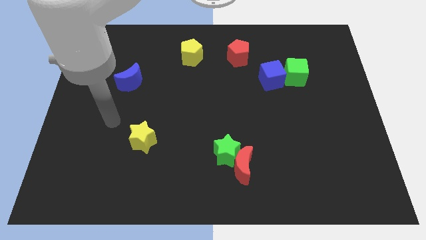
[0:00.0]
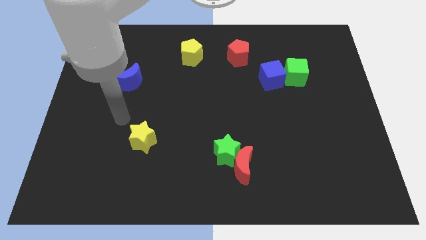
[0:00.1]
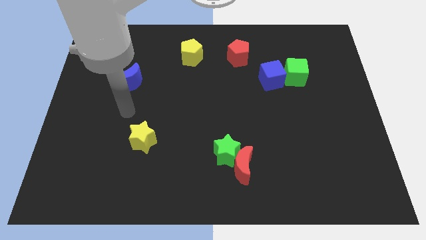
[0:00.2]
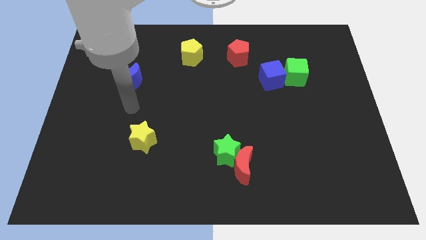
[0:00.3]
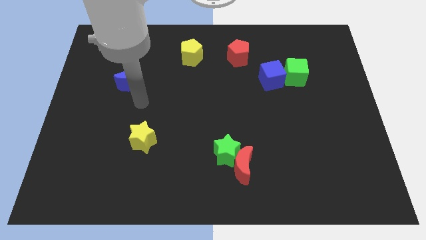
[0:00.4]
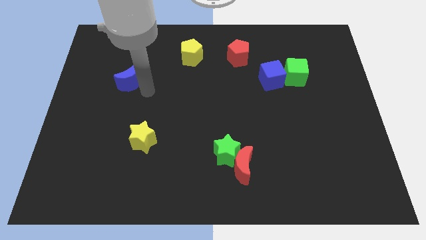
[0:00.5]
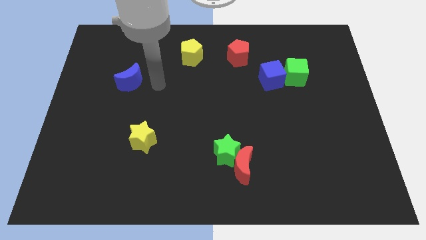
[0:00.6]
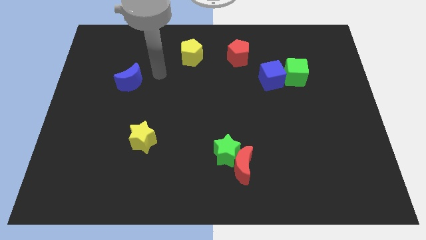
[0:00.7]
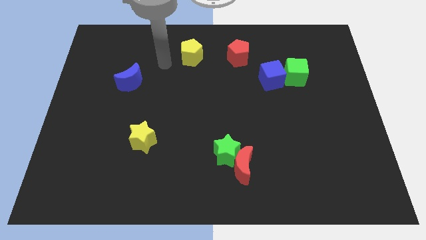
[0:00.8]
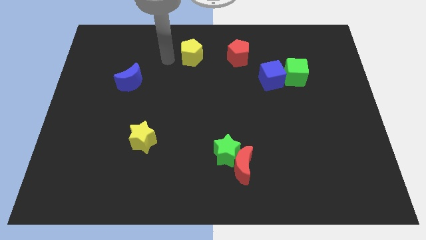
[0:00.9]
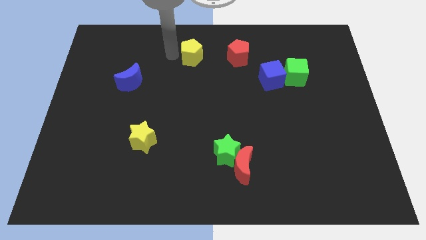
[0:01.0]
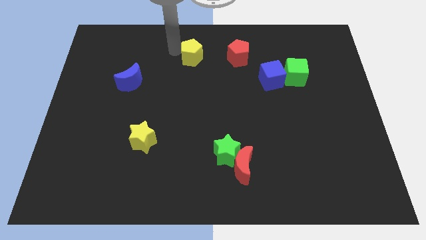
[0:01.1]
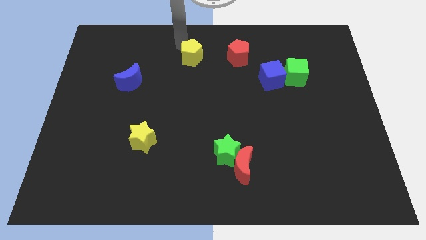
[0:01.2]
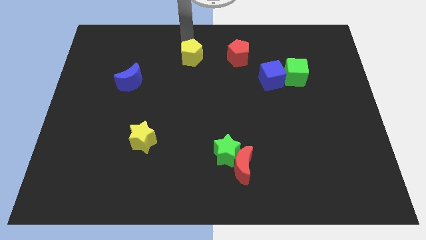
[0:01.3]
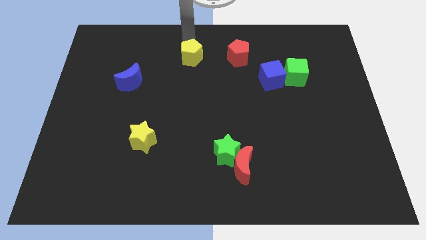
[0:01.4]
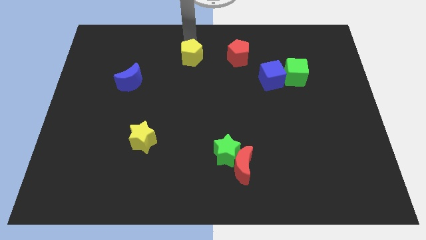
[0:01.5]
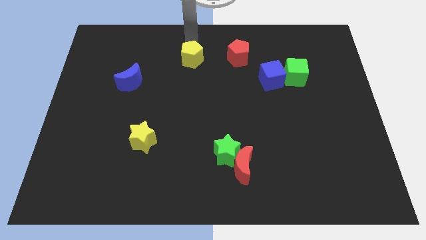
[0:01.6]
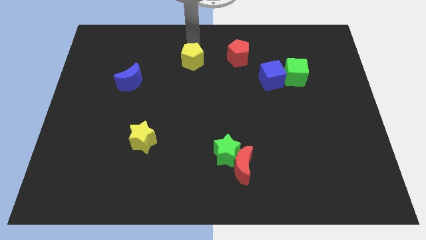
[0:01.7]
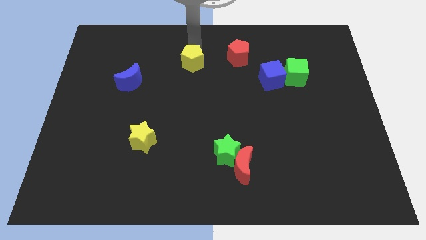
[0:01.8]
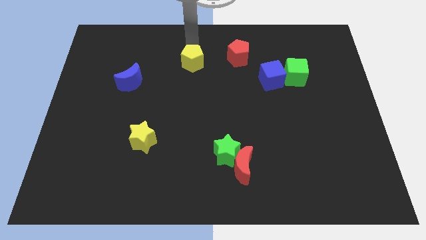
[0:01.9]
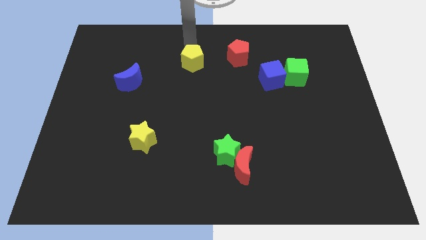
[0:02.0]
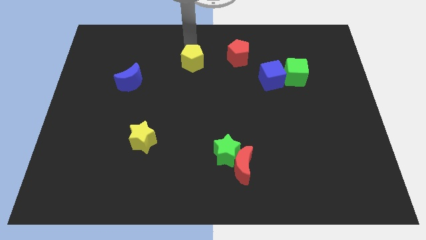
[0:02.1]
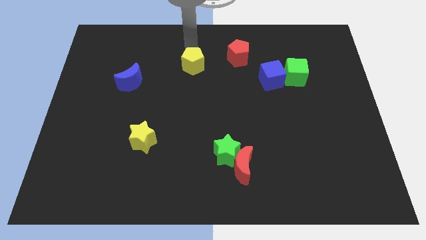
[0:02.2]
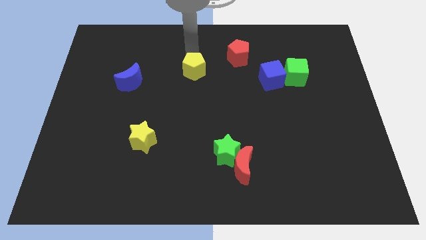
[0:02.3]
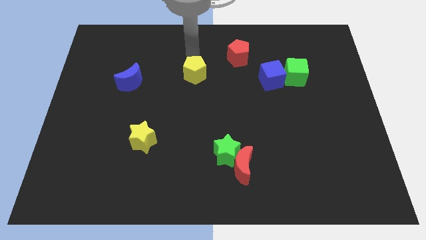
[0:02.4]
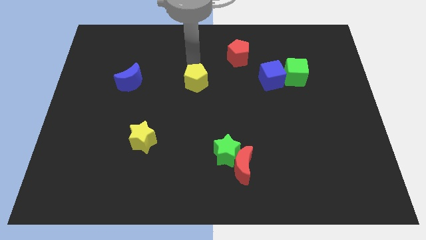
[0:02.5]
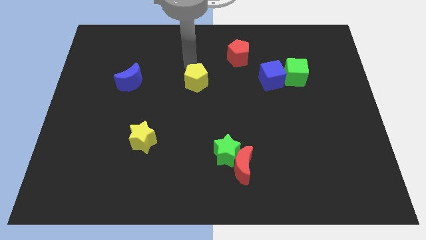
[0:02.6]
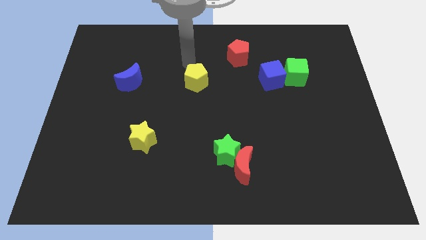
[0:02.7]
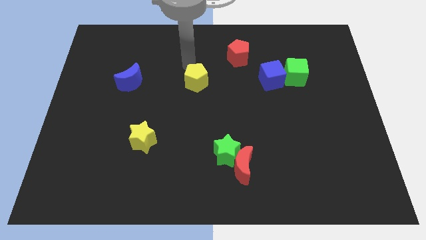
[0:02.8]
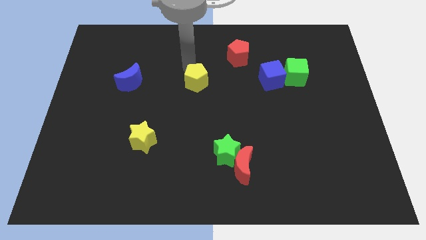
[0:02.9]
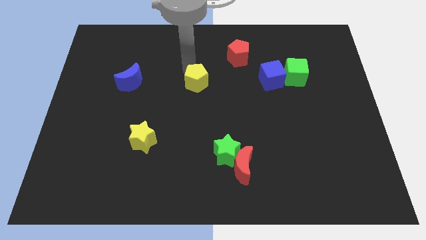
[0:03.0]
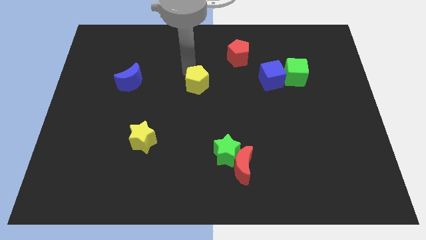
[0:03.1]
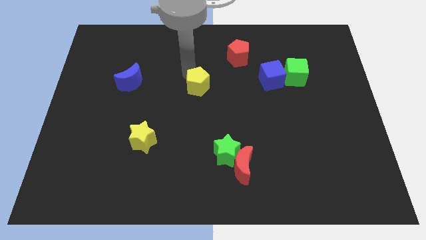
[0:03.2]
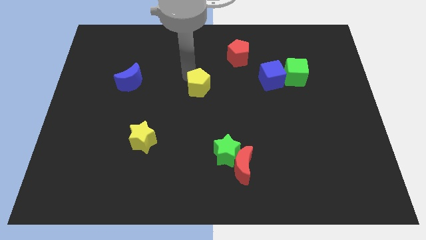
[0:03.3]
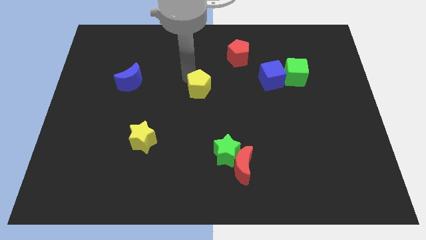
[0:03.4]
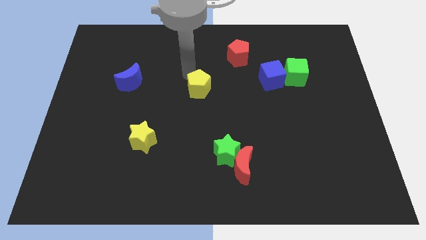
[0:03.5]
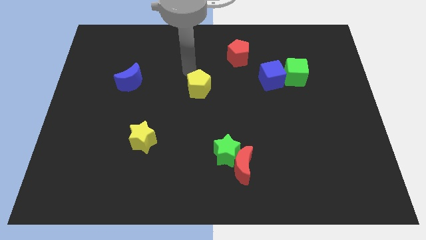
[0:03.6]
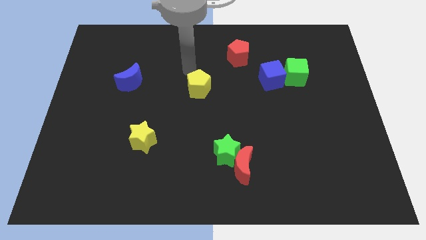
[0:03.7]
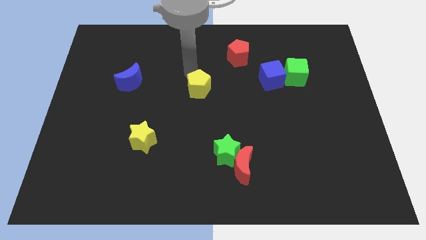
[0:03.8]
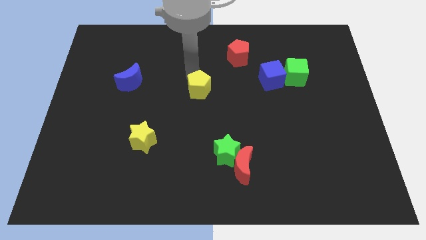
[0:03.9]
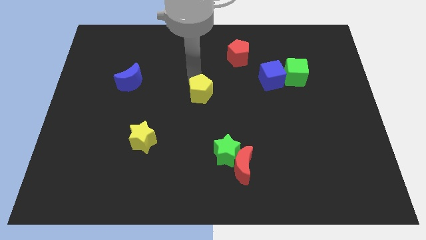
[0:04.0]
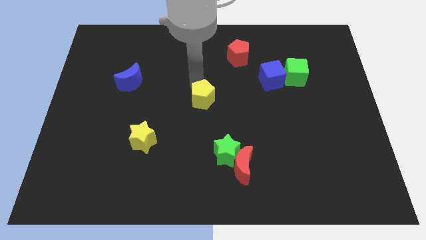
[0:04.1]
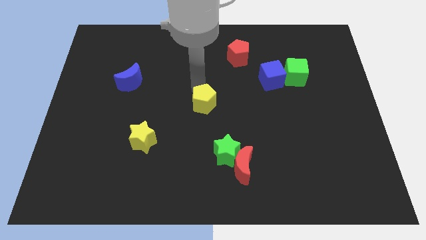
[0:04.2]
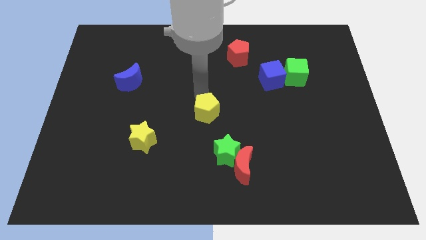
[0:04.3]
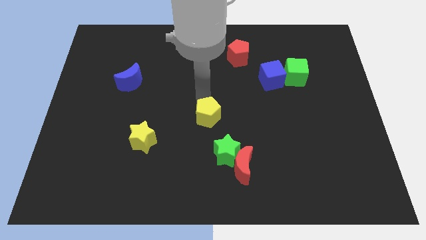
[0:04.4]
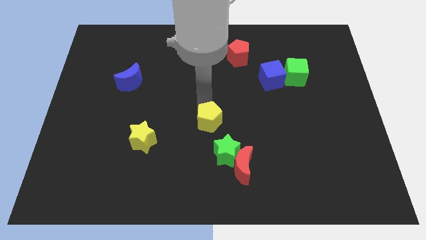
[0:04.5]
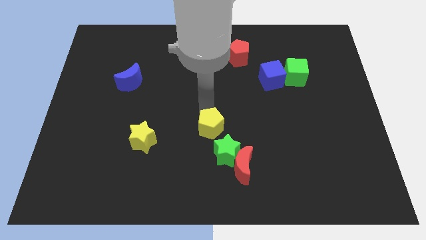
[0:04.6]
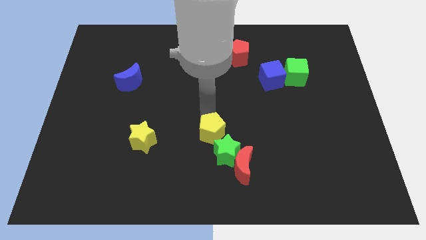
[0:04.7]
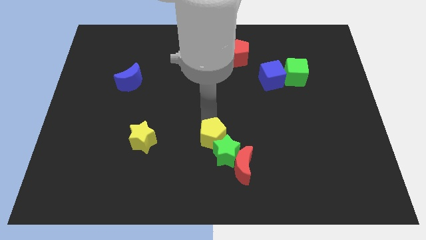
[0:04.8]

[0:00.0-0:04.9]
push the yellow pentagon next to the green star

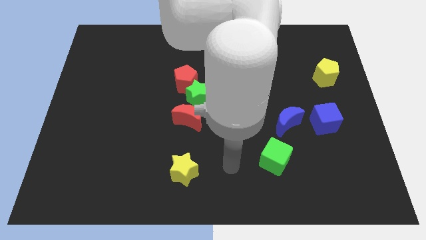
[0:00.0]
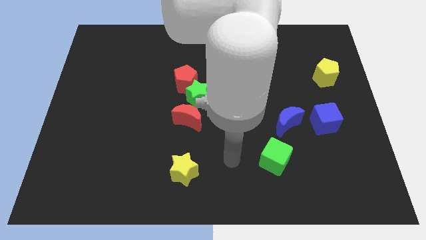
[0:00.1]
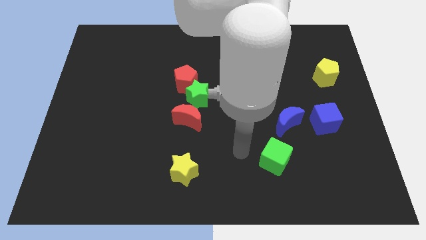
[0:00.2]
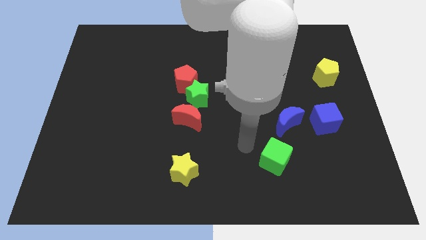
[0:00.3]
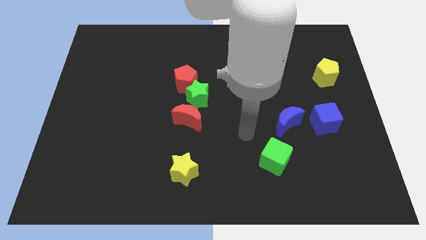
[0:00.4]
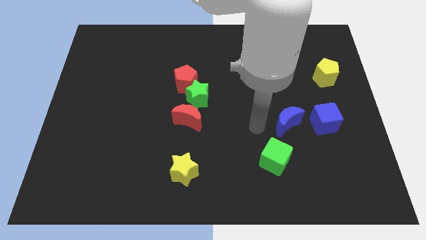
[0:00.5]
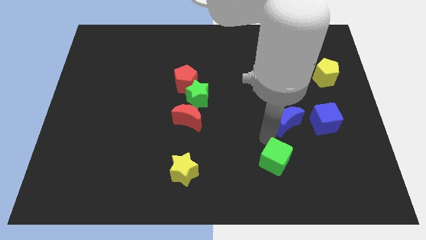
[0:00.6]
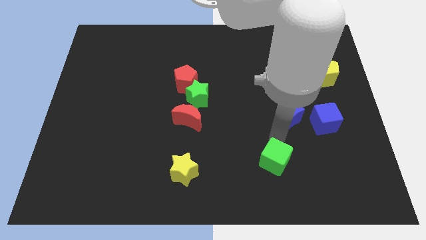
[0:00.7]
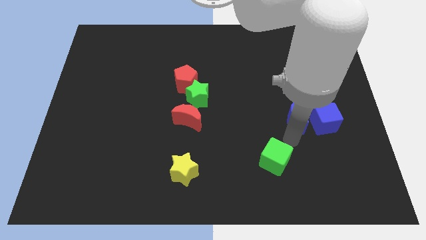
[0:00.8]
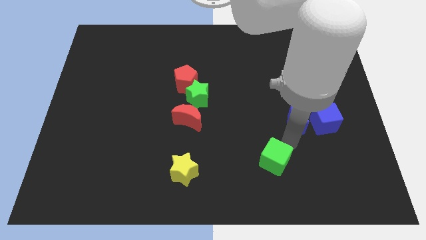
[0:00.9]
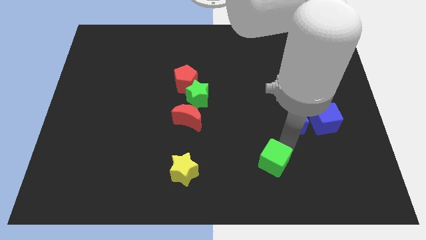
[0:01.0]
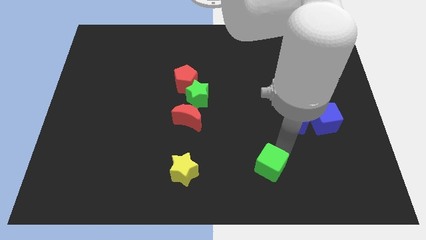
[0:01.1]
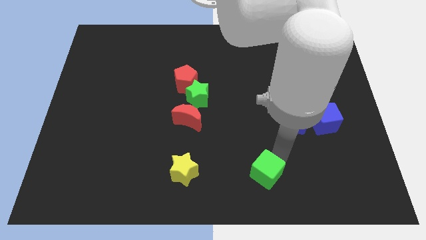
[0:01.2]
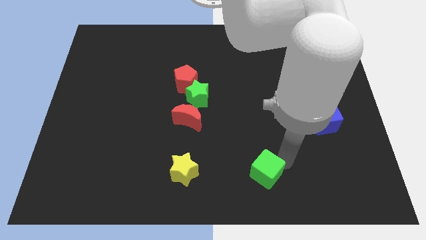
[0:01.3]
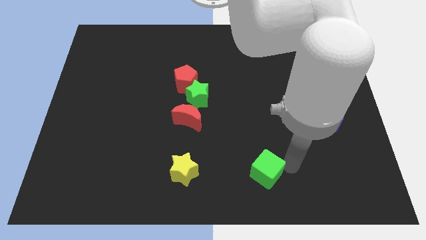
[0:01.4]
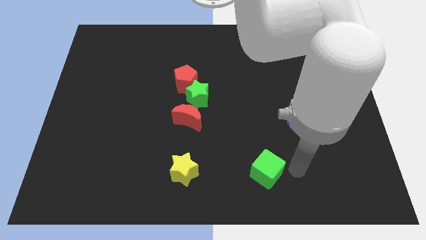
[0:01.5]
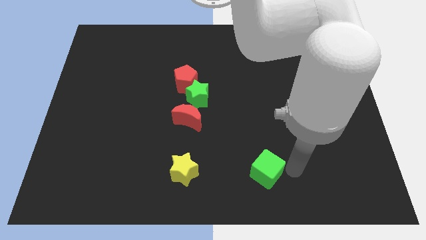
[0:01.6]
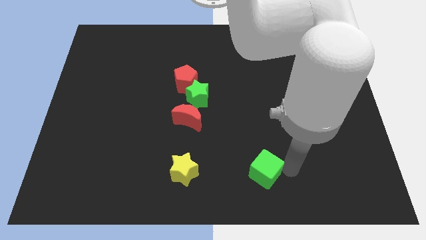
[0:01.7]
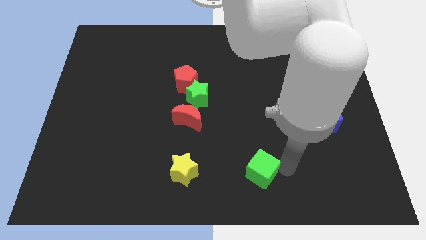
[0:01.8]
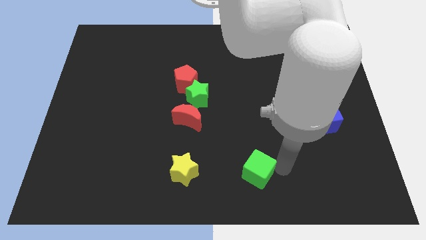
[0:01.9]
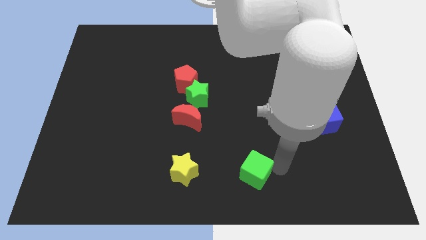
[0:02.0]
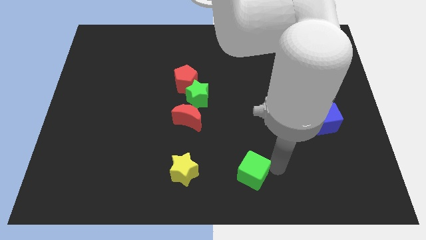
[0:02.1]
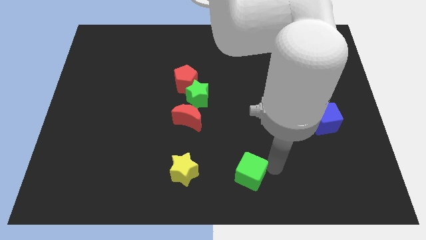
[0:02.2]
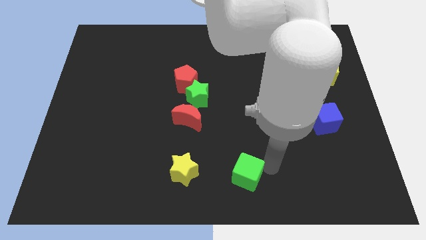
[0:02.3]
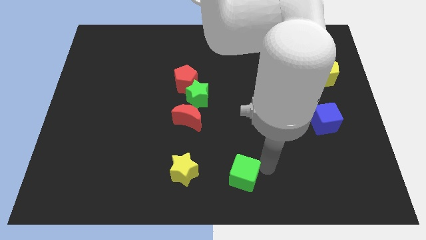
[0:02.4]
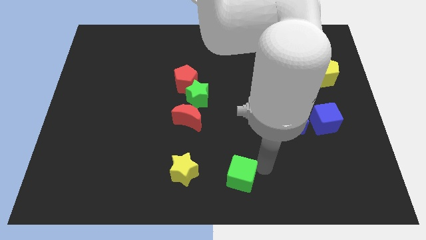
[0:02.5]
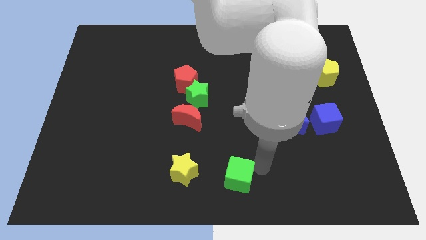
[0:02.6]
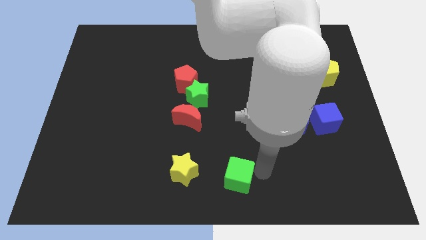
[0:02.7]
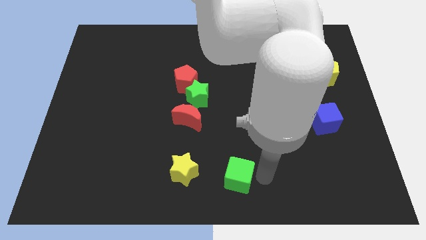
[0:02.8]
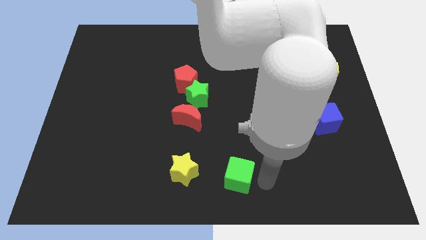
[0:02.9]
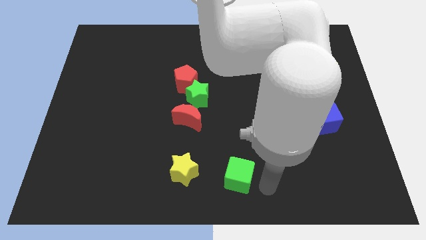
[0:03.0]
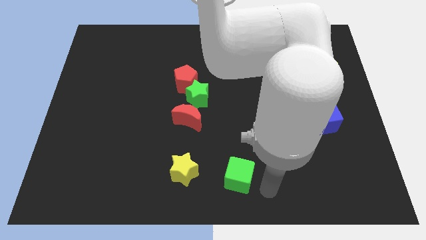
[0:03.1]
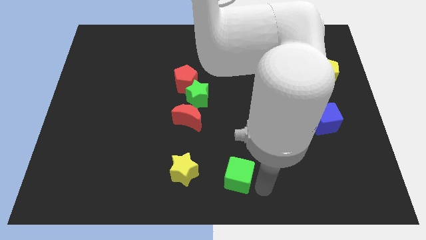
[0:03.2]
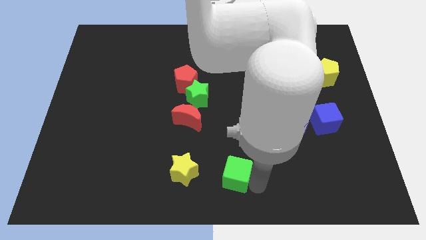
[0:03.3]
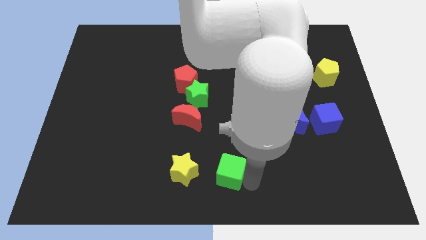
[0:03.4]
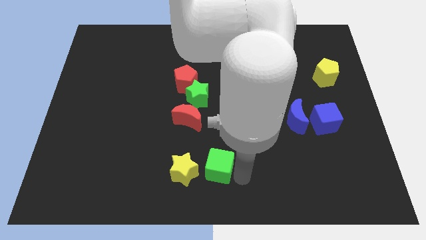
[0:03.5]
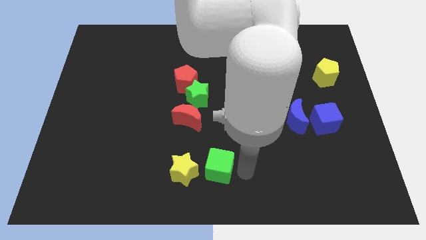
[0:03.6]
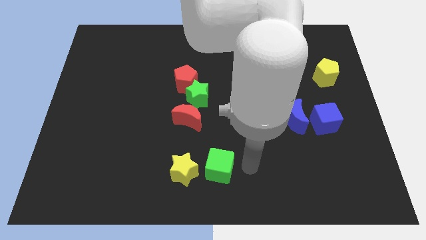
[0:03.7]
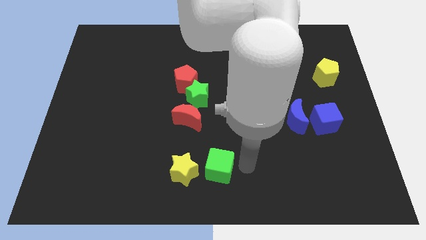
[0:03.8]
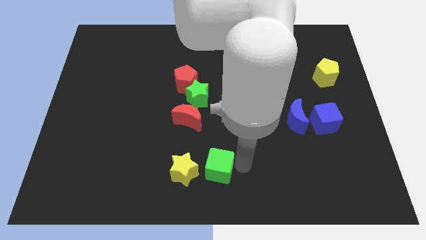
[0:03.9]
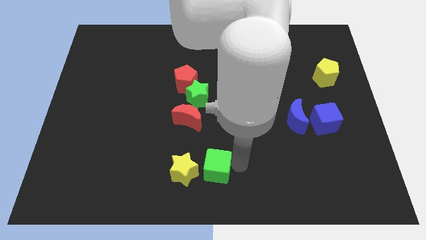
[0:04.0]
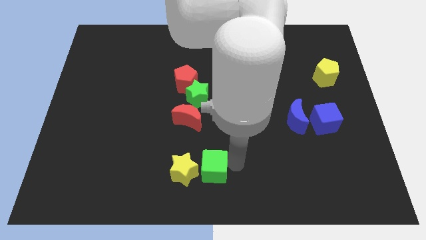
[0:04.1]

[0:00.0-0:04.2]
push the green cube close to the yellow star
